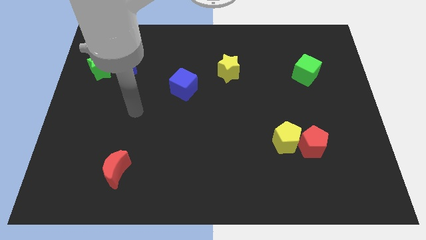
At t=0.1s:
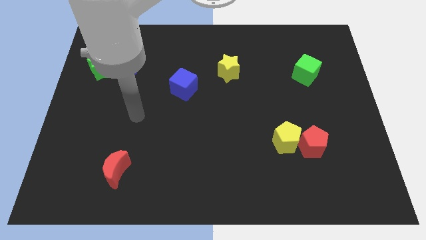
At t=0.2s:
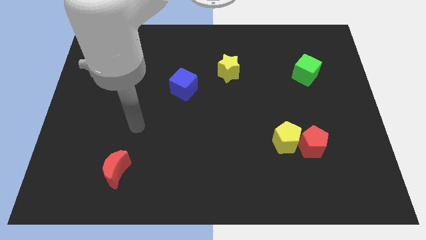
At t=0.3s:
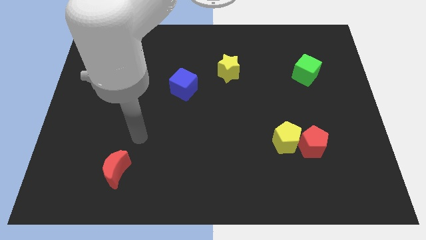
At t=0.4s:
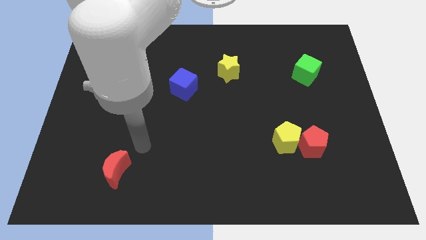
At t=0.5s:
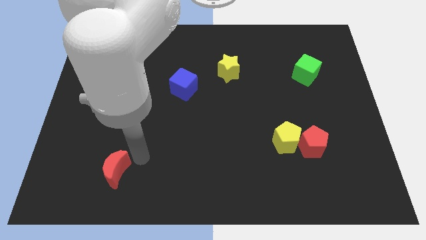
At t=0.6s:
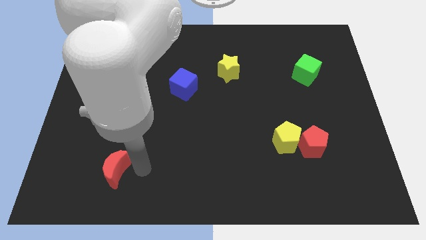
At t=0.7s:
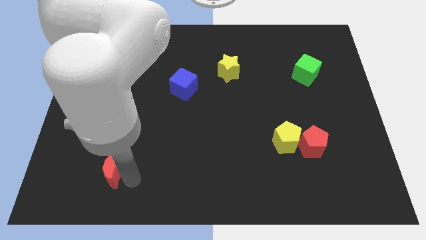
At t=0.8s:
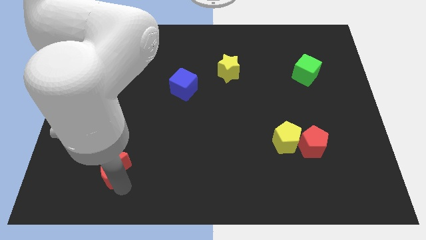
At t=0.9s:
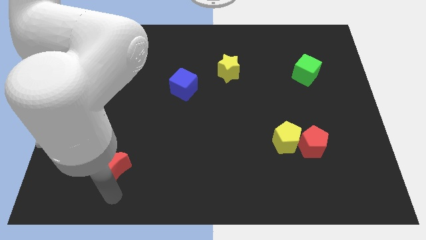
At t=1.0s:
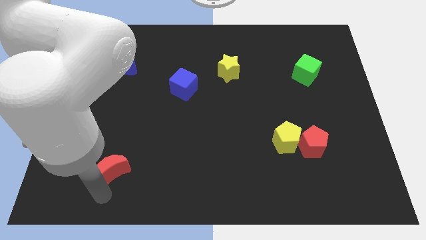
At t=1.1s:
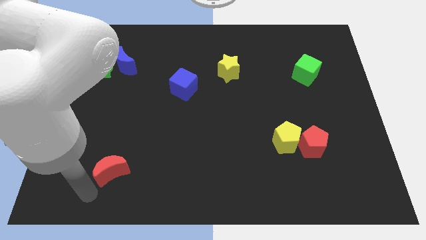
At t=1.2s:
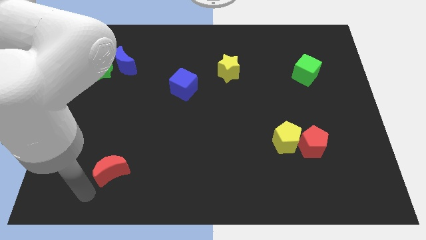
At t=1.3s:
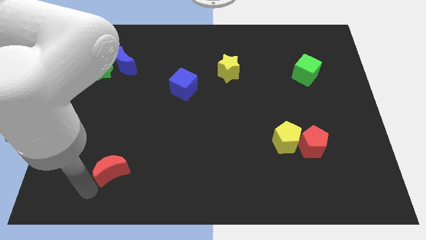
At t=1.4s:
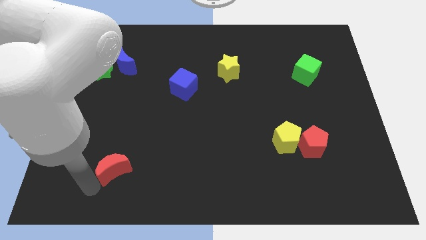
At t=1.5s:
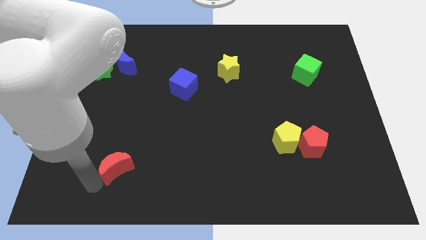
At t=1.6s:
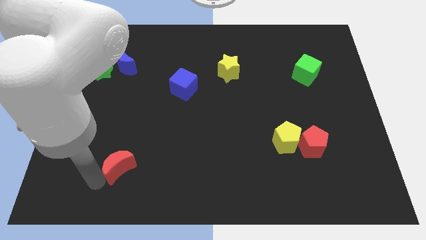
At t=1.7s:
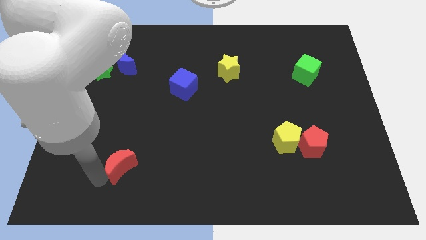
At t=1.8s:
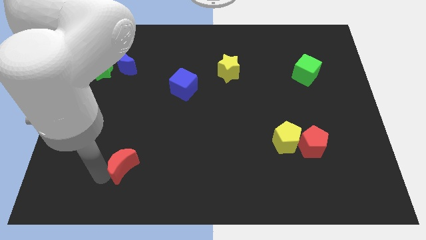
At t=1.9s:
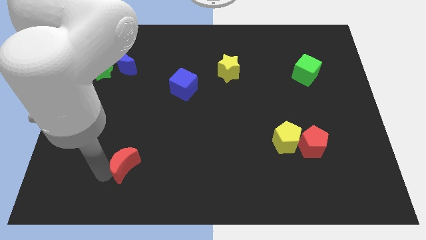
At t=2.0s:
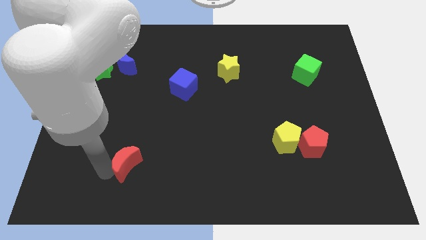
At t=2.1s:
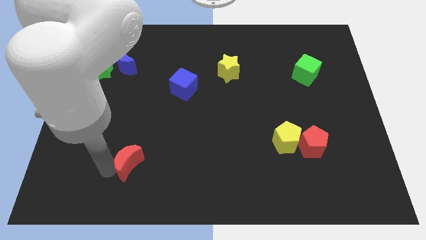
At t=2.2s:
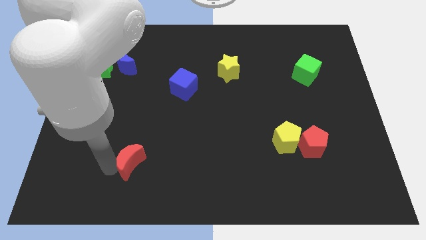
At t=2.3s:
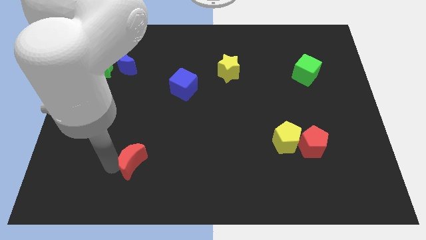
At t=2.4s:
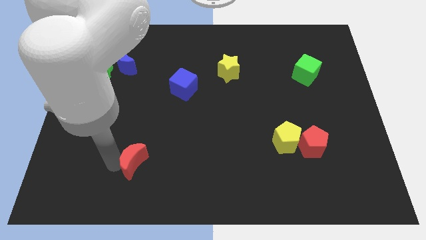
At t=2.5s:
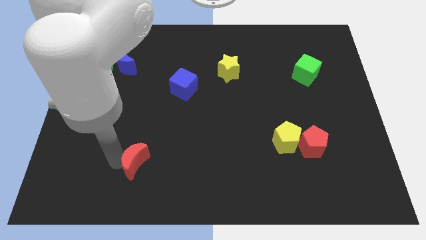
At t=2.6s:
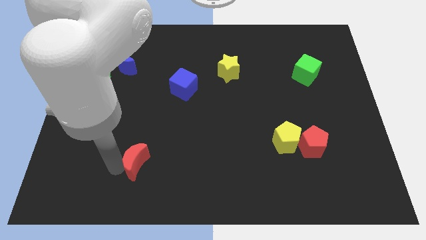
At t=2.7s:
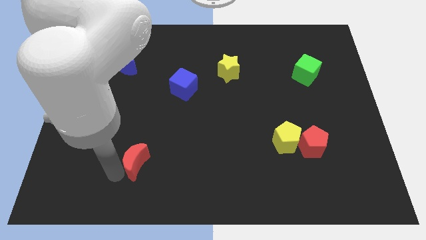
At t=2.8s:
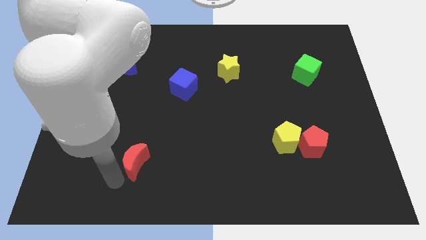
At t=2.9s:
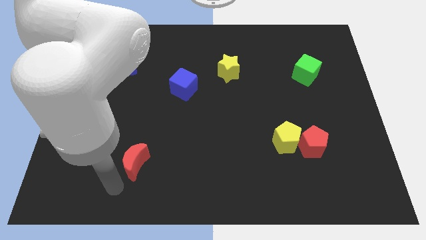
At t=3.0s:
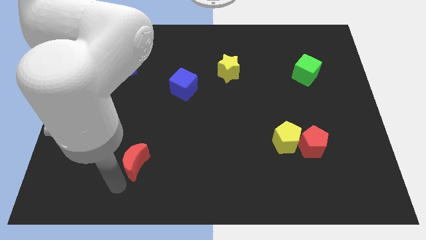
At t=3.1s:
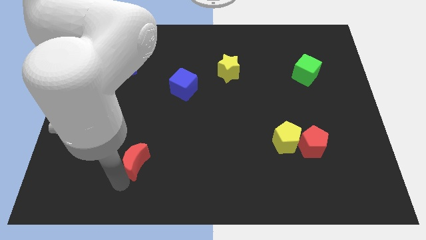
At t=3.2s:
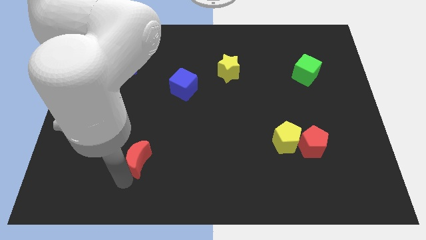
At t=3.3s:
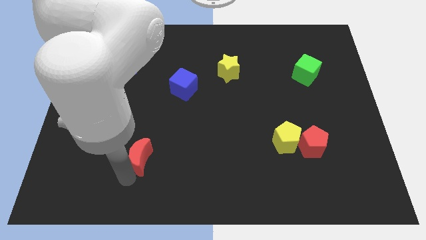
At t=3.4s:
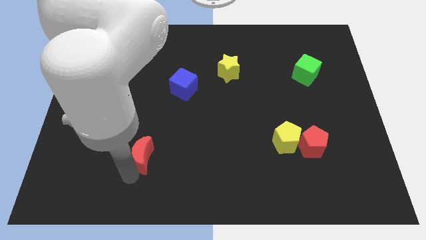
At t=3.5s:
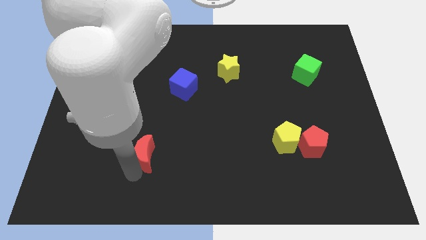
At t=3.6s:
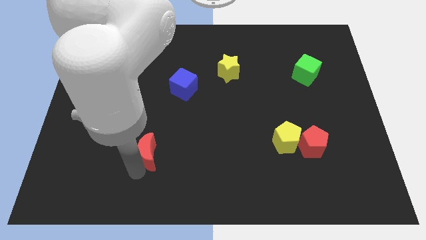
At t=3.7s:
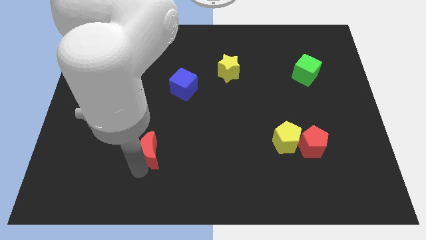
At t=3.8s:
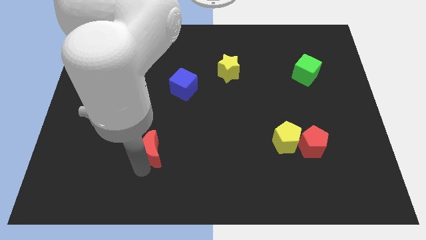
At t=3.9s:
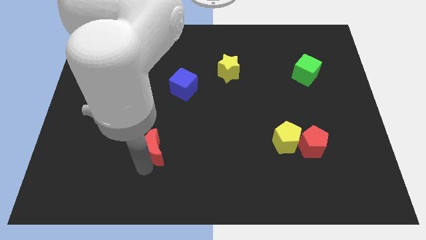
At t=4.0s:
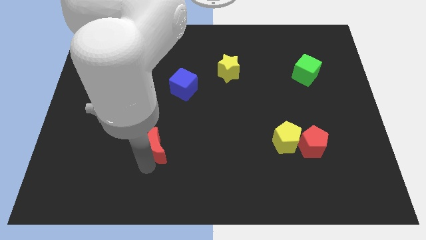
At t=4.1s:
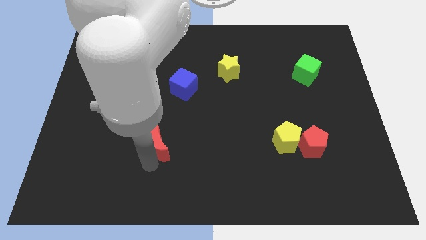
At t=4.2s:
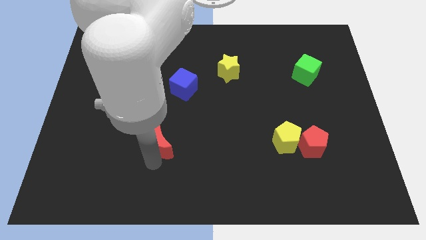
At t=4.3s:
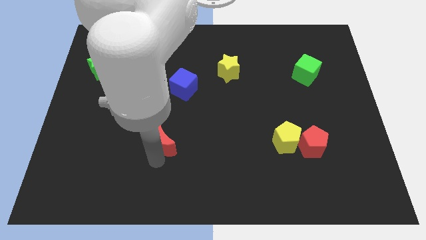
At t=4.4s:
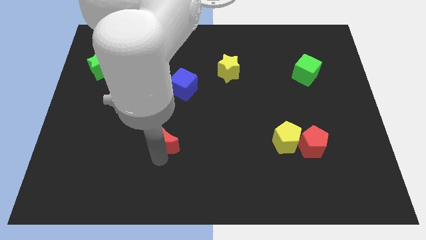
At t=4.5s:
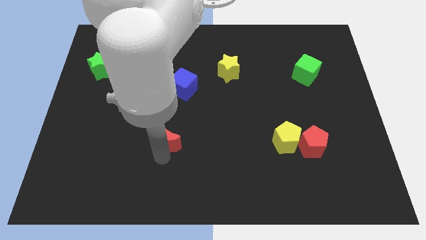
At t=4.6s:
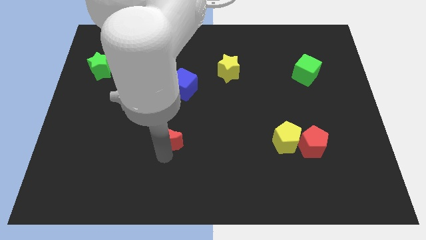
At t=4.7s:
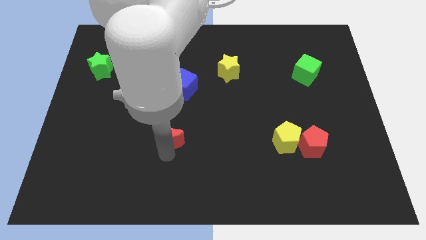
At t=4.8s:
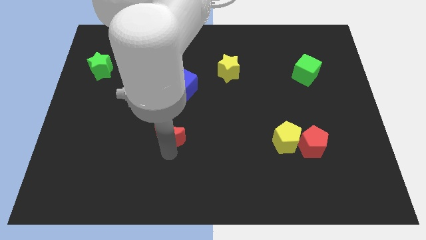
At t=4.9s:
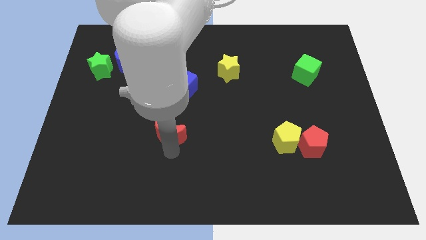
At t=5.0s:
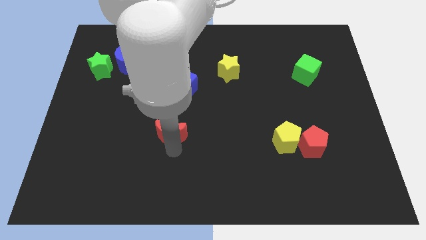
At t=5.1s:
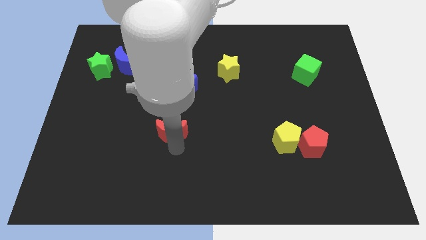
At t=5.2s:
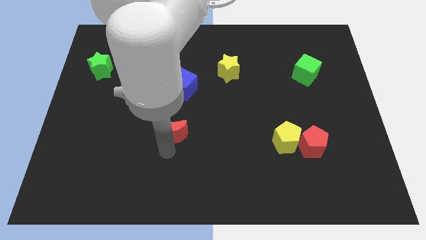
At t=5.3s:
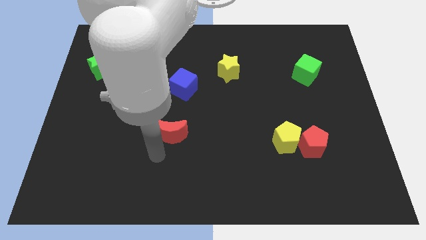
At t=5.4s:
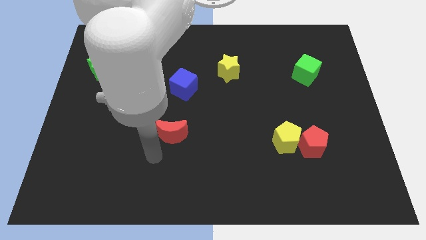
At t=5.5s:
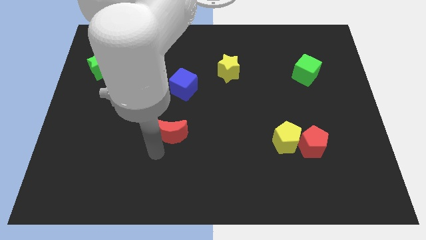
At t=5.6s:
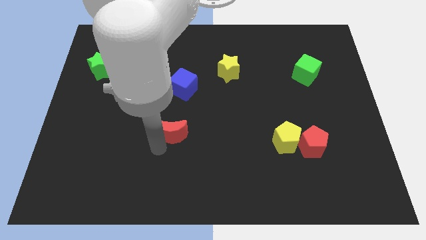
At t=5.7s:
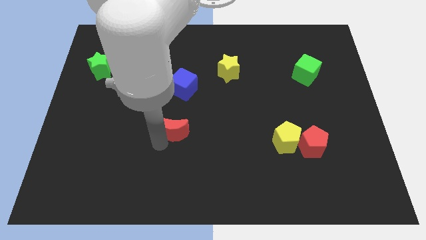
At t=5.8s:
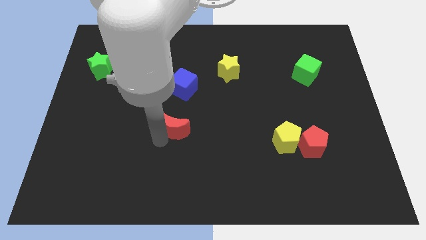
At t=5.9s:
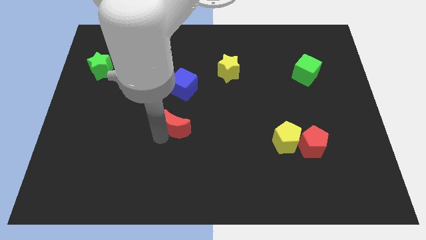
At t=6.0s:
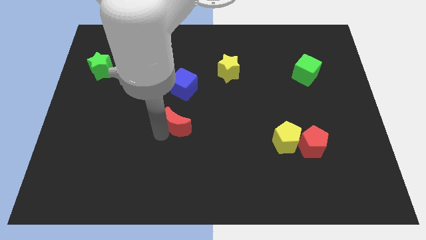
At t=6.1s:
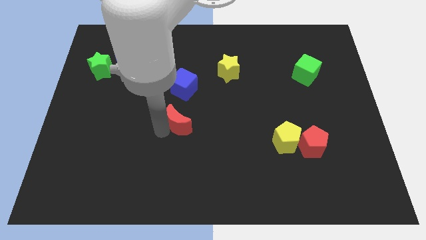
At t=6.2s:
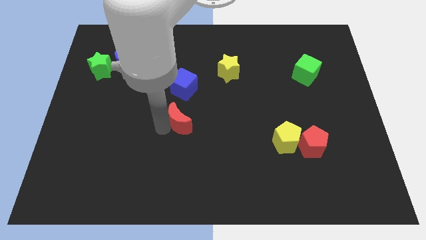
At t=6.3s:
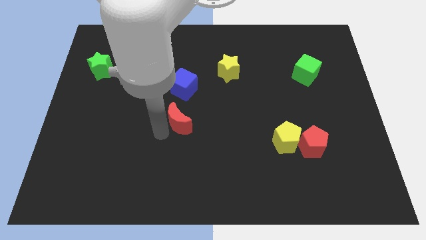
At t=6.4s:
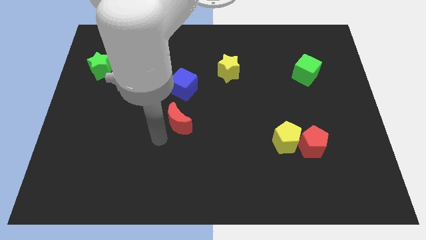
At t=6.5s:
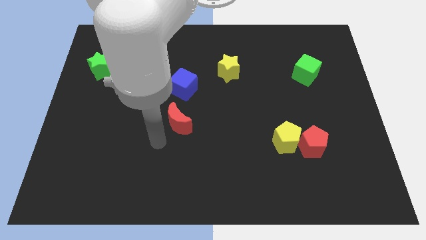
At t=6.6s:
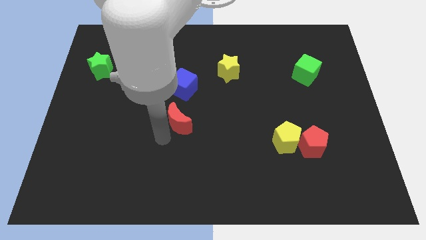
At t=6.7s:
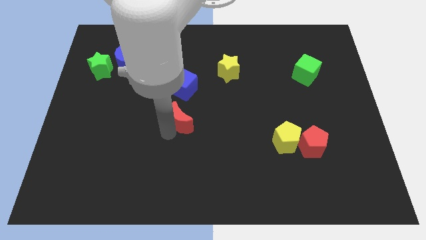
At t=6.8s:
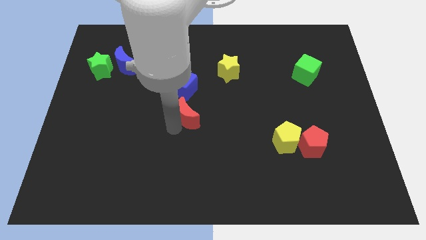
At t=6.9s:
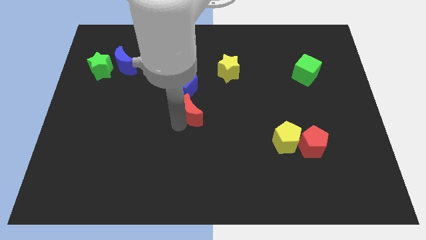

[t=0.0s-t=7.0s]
move the red moon up and then right

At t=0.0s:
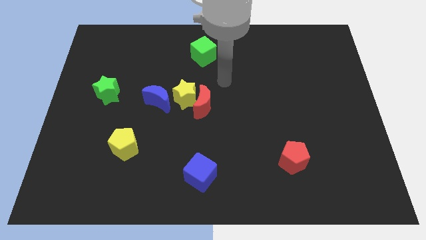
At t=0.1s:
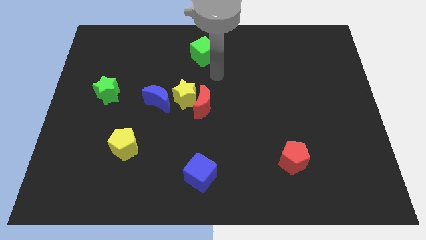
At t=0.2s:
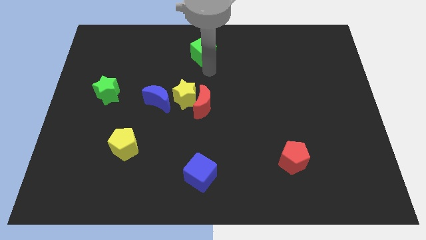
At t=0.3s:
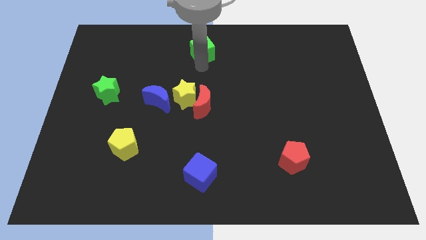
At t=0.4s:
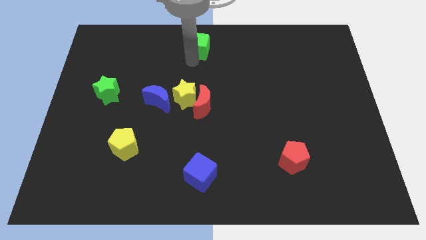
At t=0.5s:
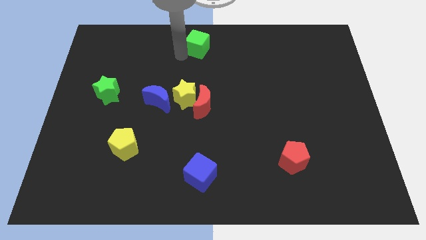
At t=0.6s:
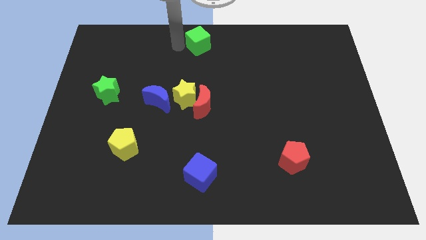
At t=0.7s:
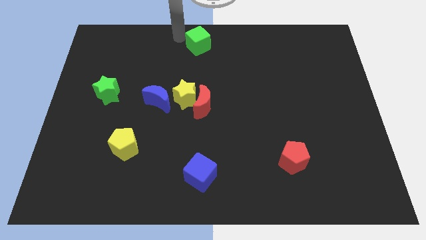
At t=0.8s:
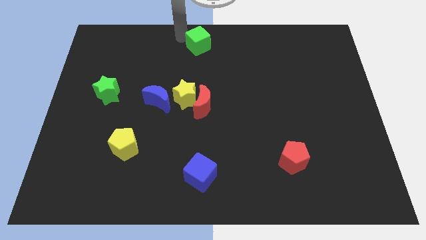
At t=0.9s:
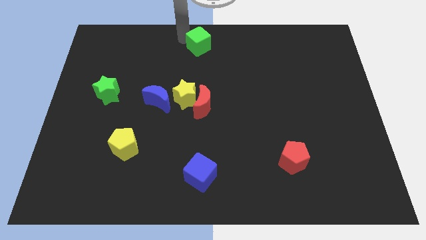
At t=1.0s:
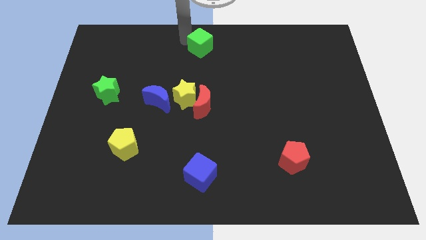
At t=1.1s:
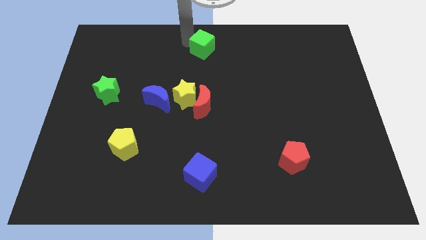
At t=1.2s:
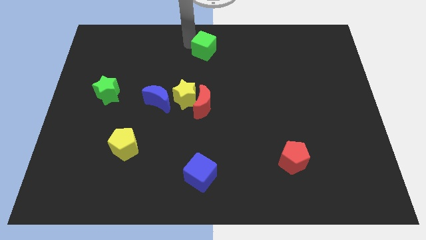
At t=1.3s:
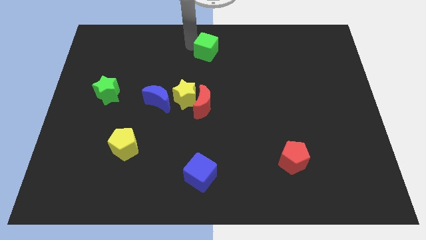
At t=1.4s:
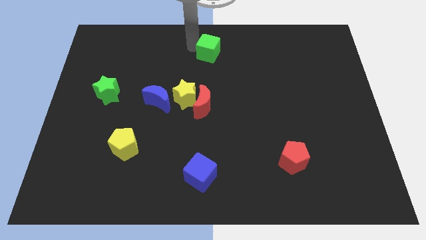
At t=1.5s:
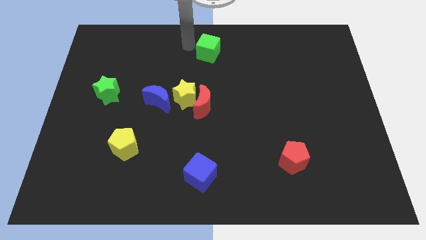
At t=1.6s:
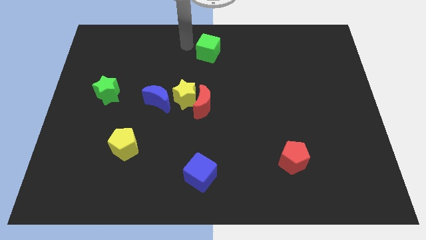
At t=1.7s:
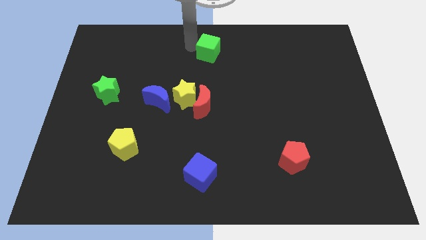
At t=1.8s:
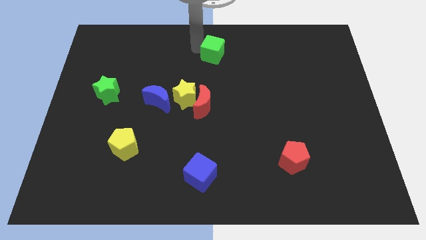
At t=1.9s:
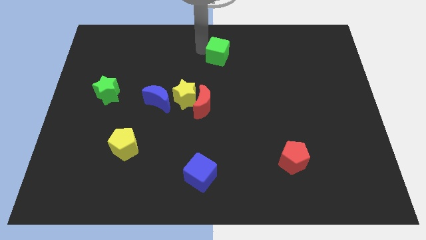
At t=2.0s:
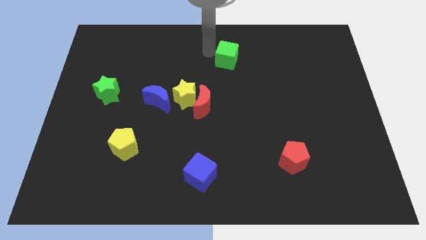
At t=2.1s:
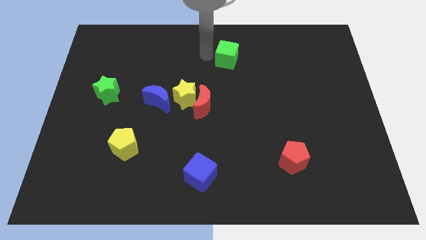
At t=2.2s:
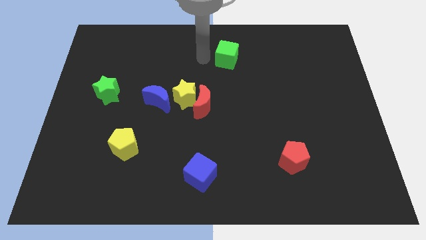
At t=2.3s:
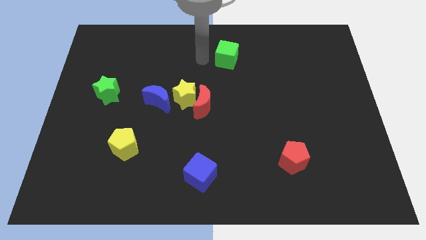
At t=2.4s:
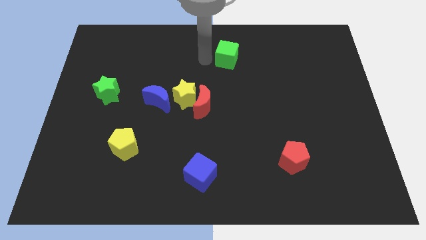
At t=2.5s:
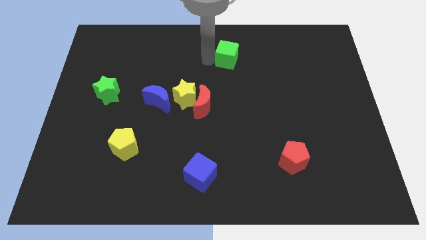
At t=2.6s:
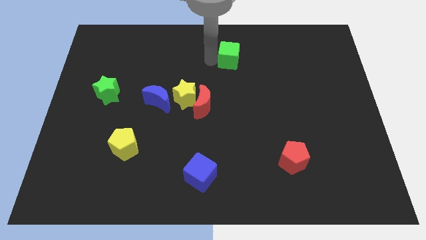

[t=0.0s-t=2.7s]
push the green cube right a bit
